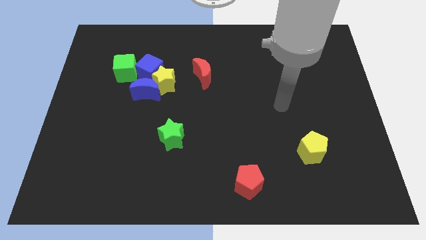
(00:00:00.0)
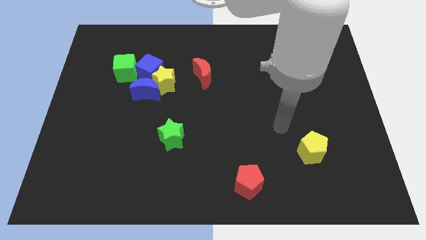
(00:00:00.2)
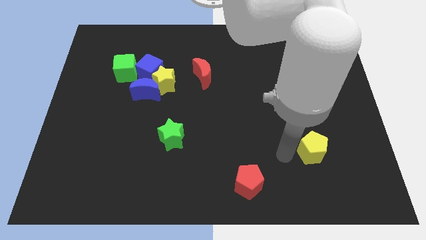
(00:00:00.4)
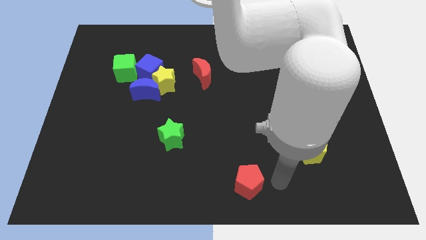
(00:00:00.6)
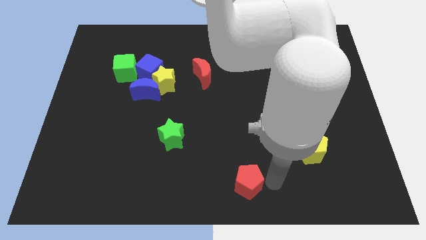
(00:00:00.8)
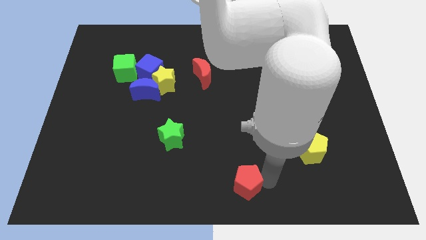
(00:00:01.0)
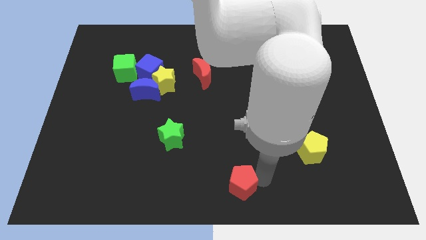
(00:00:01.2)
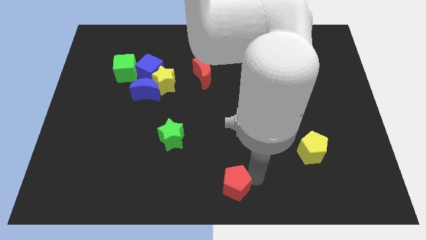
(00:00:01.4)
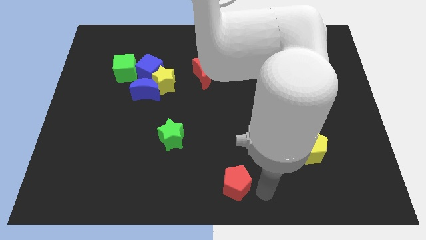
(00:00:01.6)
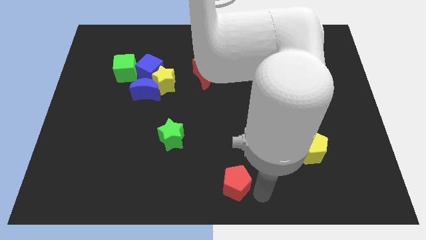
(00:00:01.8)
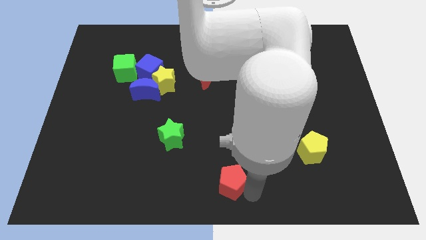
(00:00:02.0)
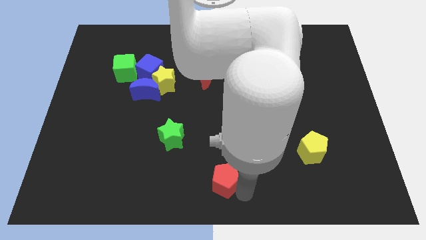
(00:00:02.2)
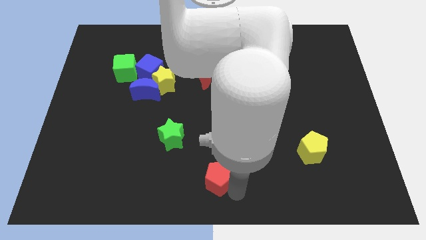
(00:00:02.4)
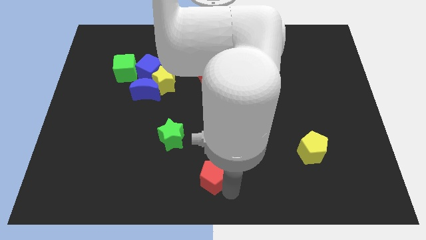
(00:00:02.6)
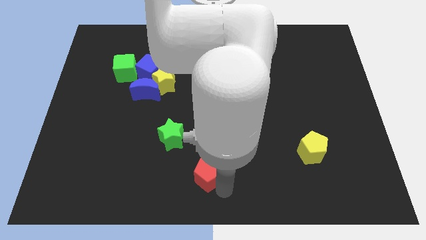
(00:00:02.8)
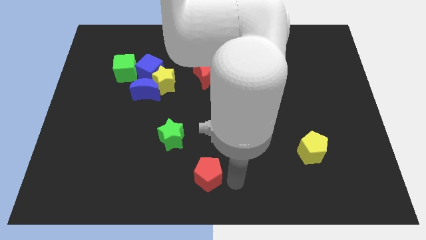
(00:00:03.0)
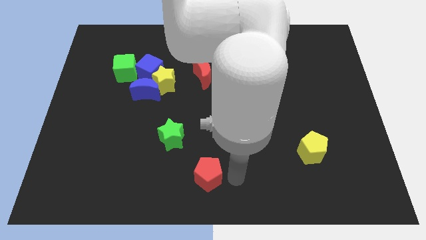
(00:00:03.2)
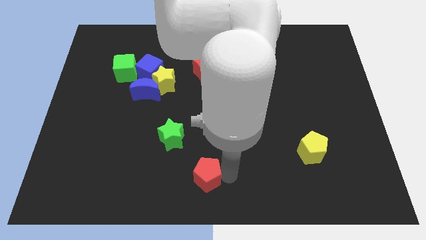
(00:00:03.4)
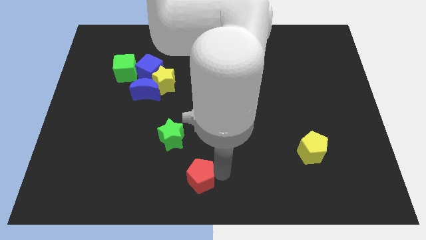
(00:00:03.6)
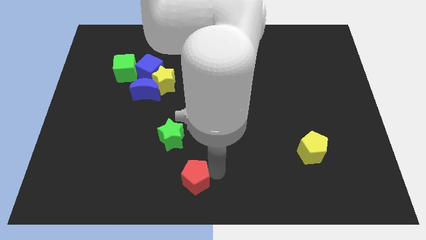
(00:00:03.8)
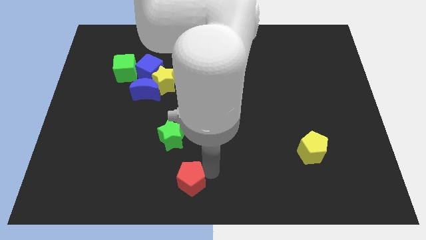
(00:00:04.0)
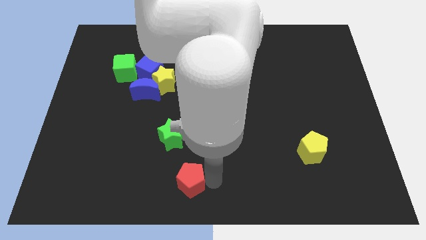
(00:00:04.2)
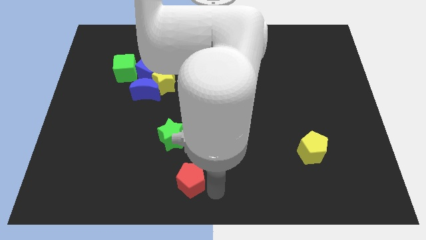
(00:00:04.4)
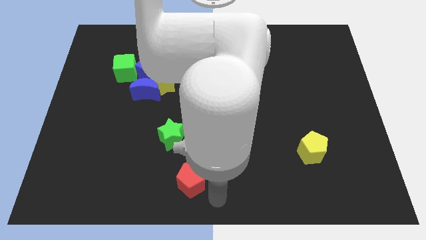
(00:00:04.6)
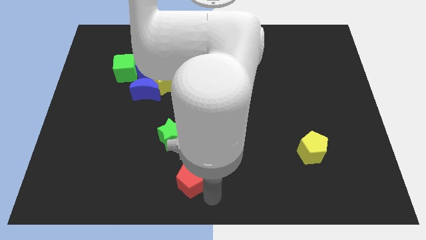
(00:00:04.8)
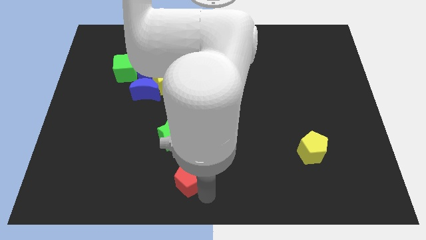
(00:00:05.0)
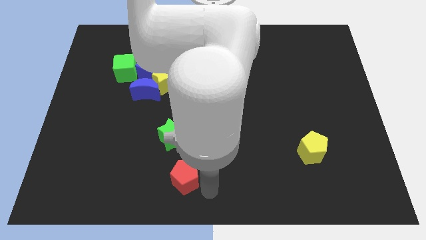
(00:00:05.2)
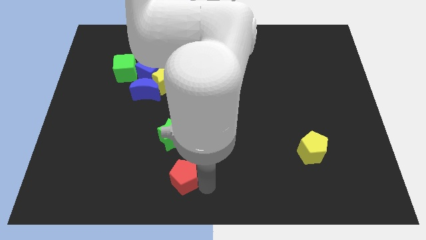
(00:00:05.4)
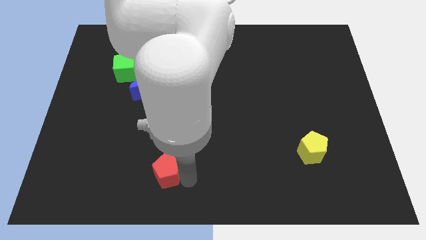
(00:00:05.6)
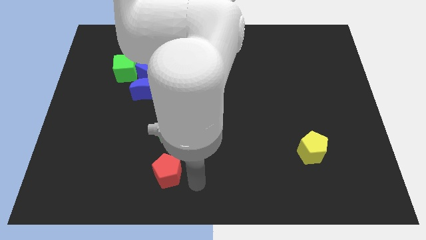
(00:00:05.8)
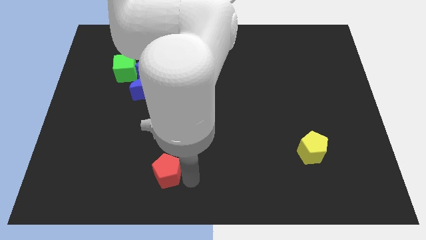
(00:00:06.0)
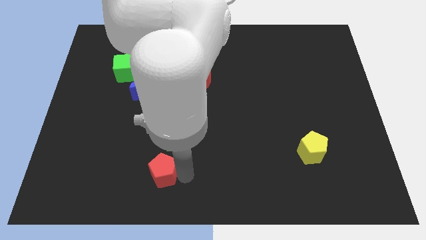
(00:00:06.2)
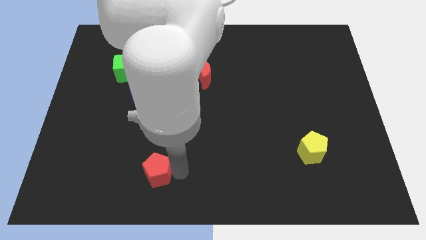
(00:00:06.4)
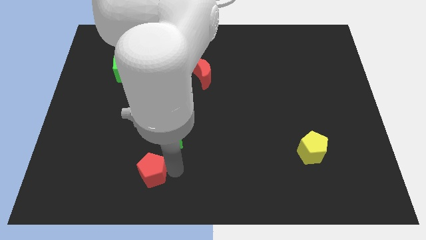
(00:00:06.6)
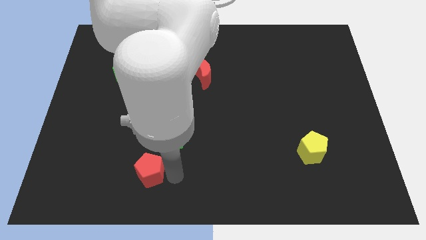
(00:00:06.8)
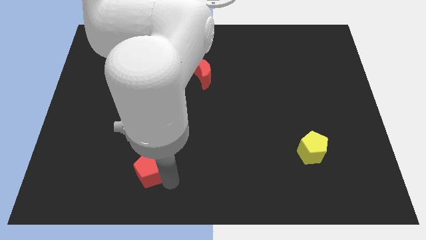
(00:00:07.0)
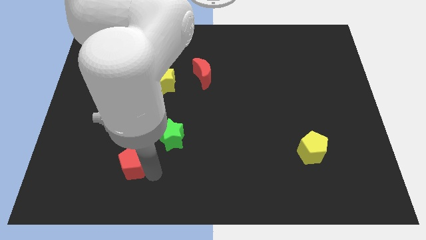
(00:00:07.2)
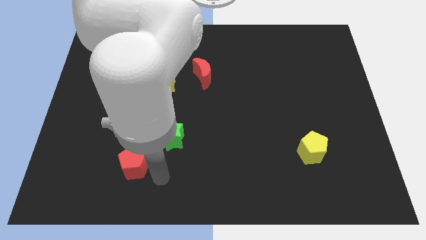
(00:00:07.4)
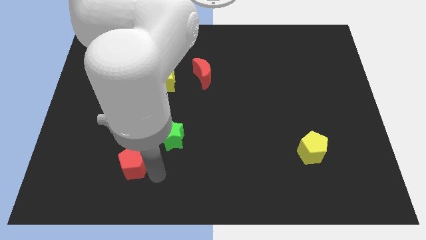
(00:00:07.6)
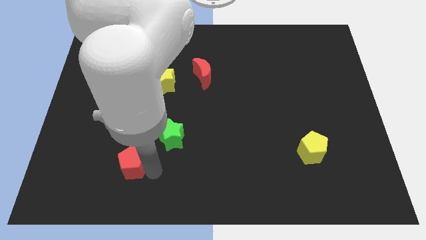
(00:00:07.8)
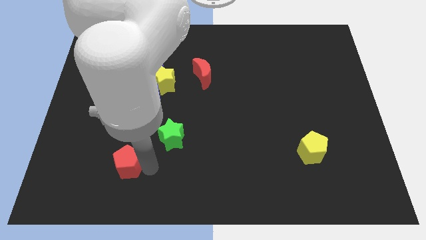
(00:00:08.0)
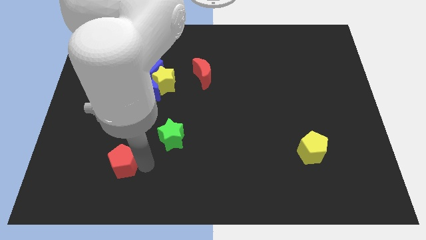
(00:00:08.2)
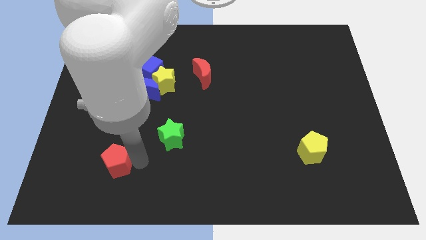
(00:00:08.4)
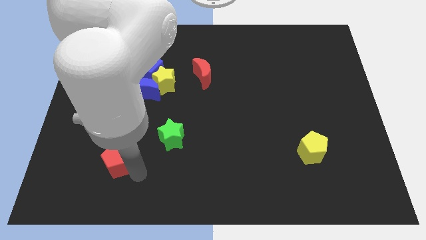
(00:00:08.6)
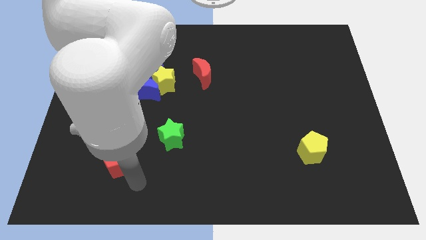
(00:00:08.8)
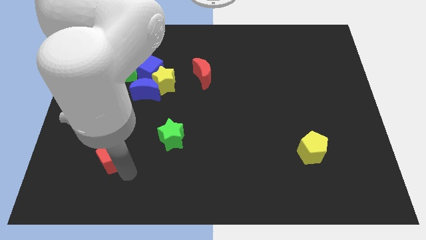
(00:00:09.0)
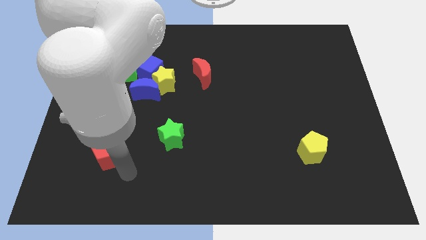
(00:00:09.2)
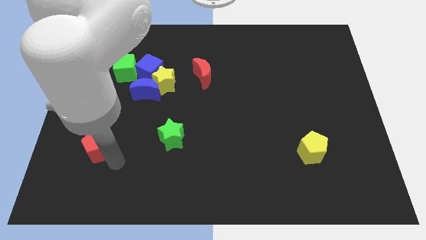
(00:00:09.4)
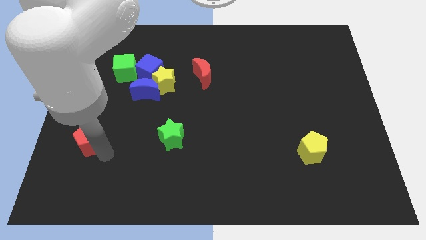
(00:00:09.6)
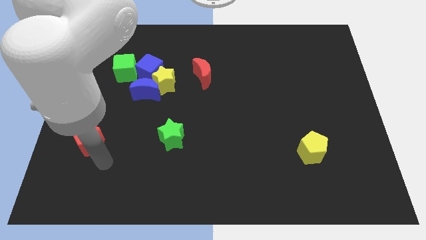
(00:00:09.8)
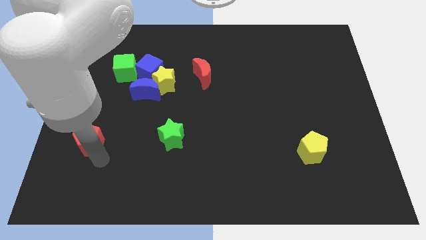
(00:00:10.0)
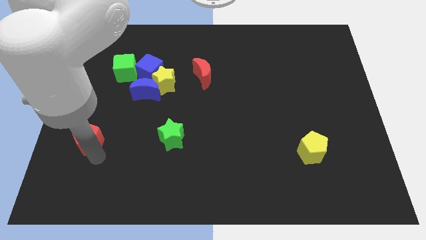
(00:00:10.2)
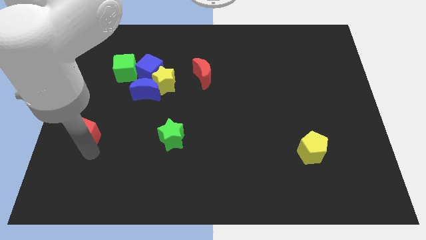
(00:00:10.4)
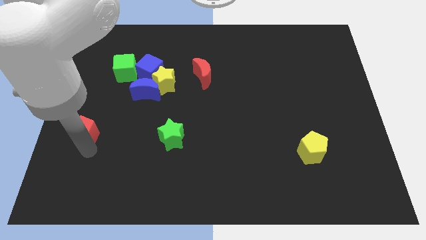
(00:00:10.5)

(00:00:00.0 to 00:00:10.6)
put the red pentagon to the center left

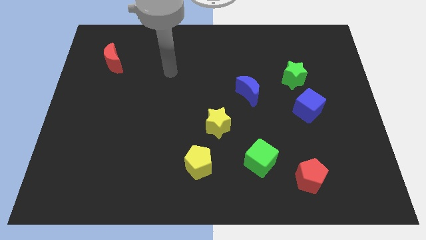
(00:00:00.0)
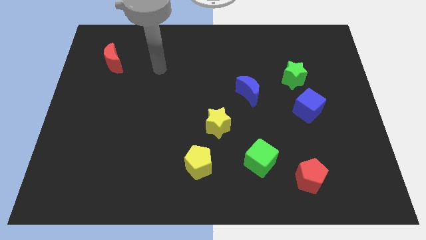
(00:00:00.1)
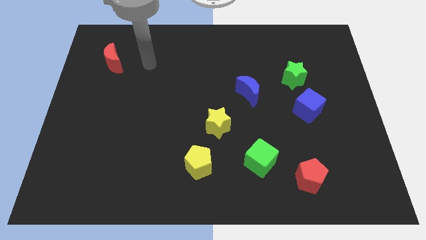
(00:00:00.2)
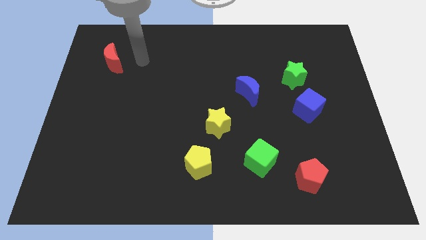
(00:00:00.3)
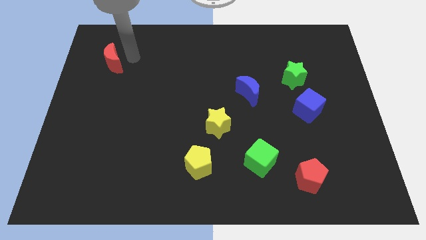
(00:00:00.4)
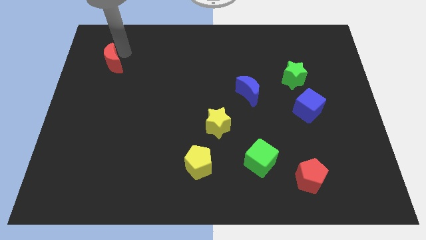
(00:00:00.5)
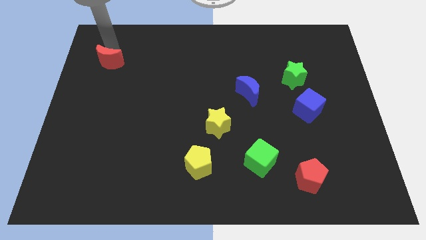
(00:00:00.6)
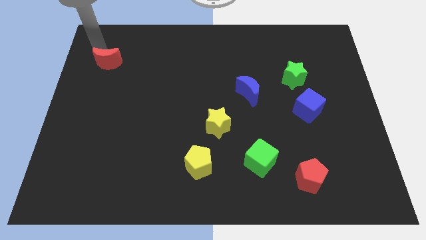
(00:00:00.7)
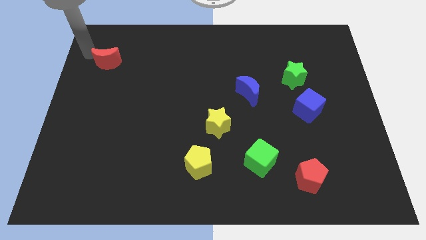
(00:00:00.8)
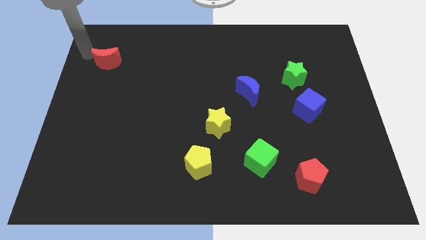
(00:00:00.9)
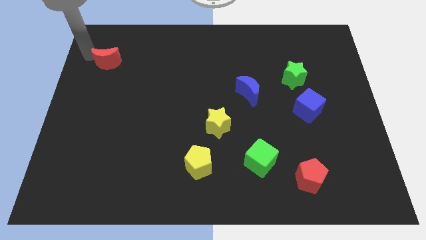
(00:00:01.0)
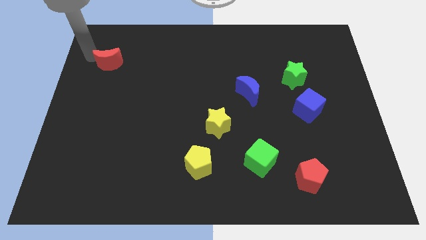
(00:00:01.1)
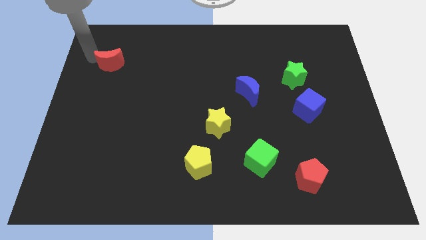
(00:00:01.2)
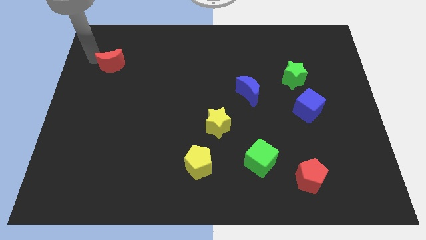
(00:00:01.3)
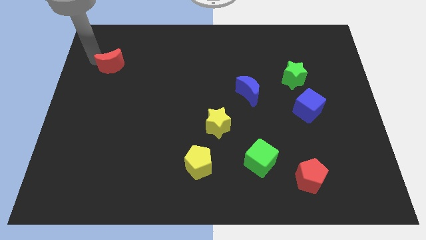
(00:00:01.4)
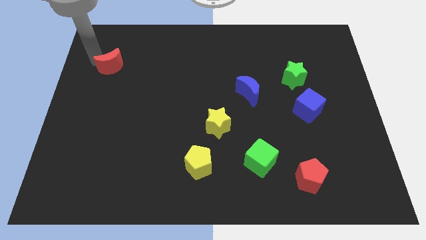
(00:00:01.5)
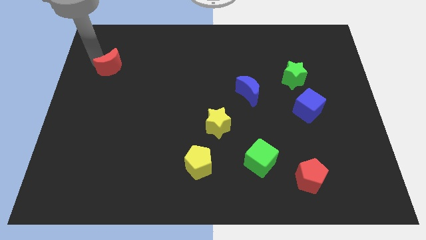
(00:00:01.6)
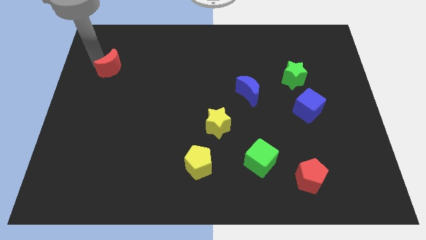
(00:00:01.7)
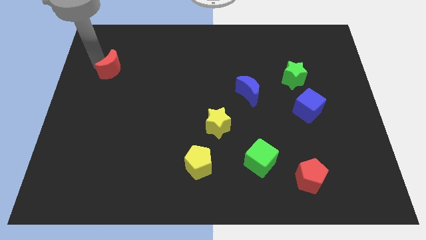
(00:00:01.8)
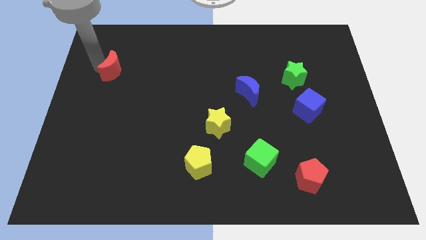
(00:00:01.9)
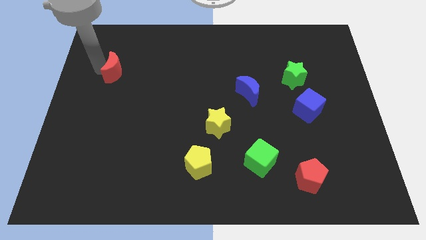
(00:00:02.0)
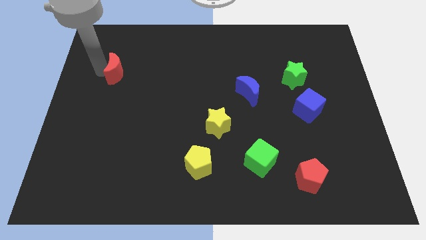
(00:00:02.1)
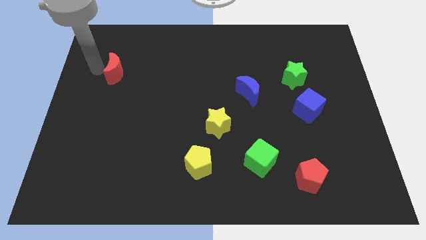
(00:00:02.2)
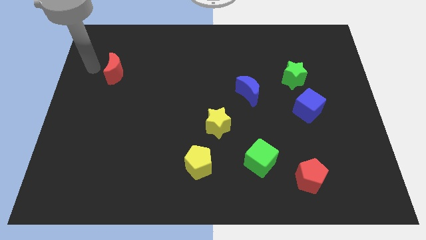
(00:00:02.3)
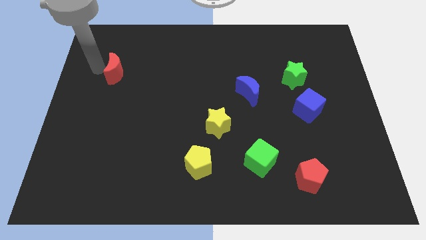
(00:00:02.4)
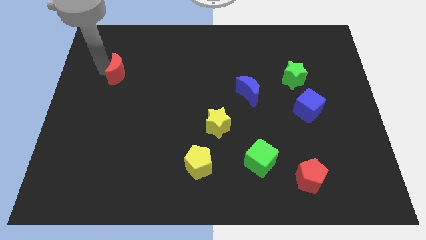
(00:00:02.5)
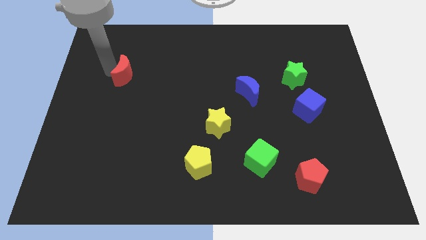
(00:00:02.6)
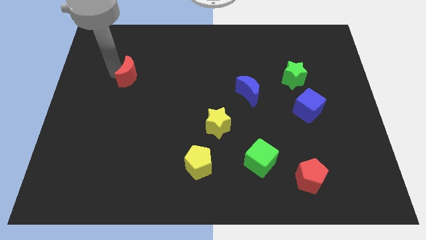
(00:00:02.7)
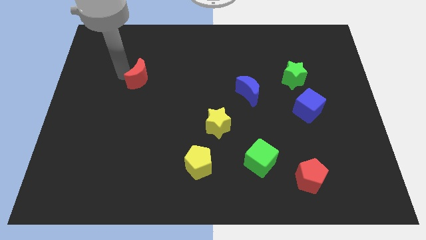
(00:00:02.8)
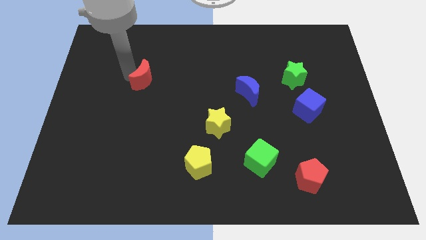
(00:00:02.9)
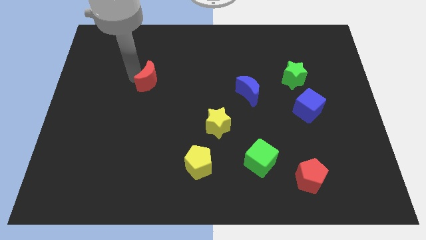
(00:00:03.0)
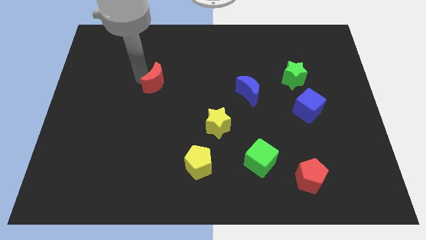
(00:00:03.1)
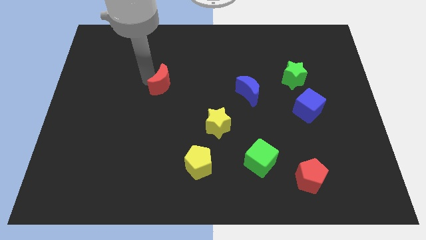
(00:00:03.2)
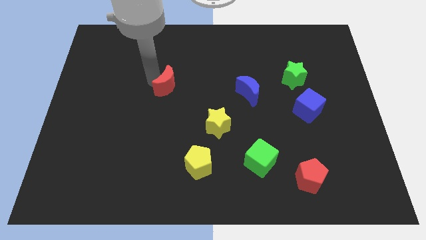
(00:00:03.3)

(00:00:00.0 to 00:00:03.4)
push the red moon to the middle of the board
